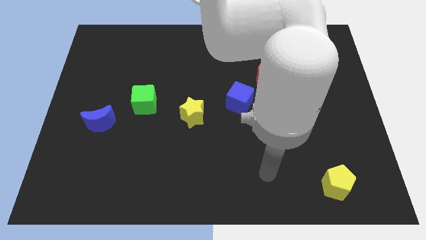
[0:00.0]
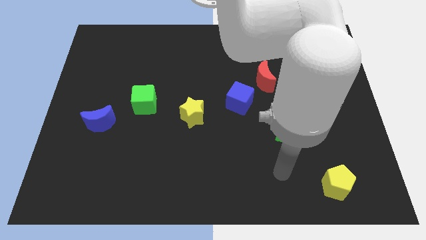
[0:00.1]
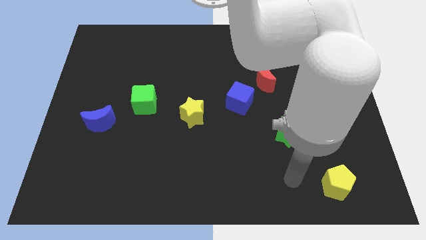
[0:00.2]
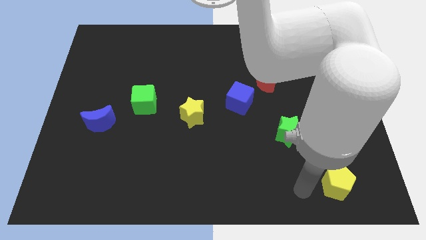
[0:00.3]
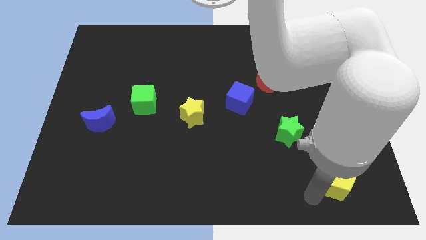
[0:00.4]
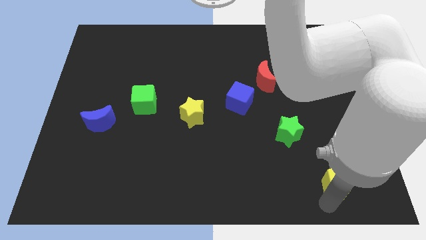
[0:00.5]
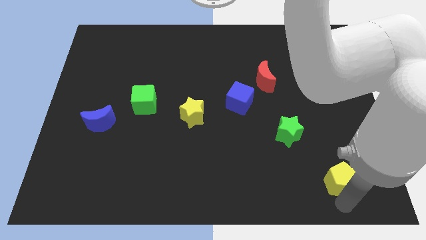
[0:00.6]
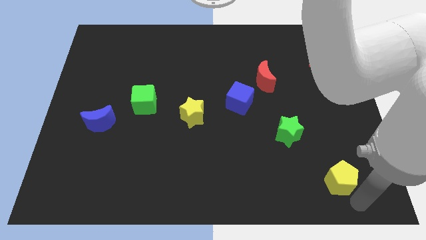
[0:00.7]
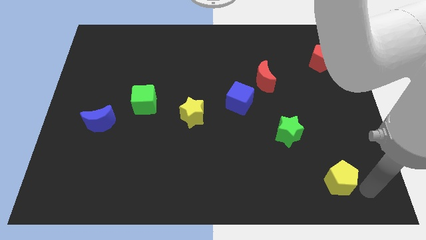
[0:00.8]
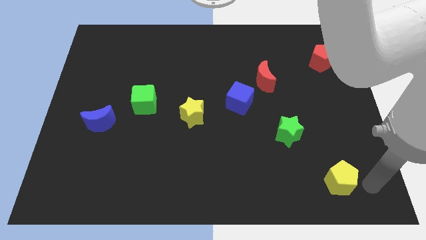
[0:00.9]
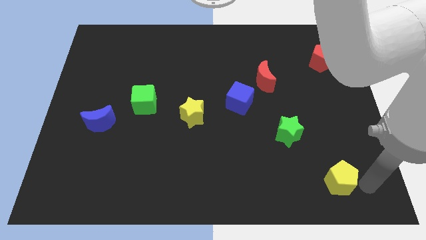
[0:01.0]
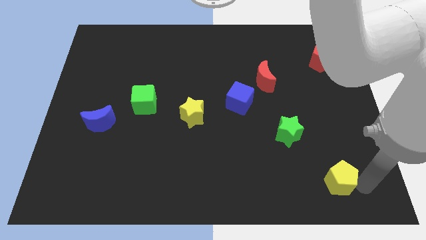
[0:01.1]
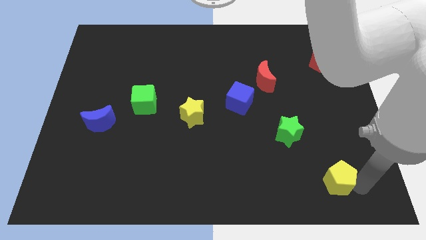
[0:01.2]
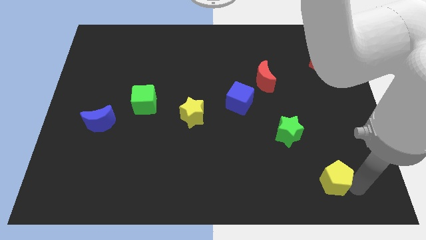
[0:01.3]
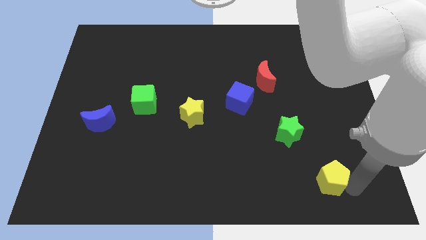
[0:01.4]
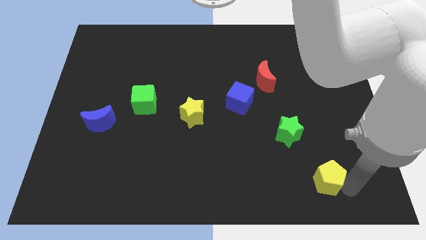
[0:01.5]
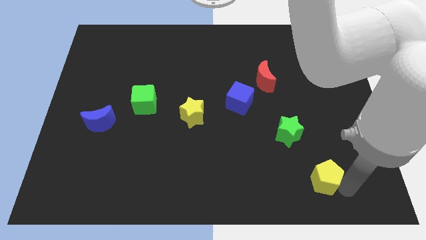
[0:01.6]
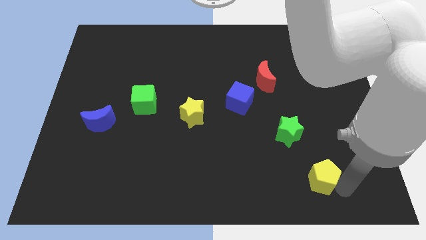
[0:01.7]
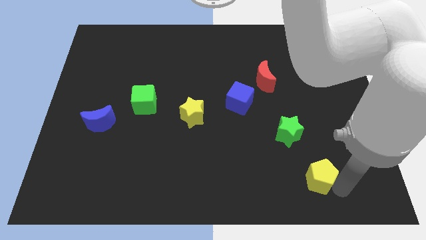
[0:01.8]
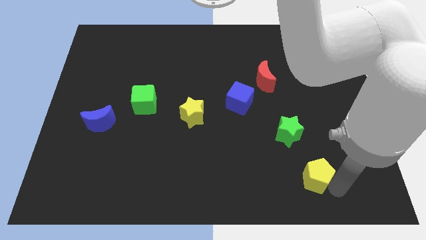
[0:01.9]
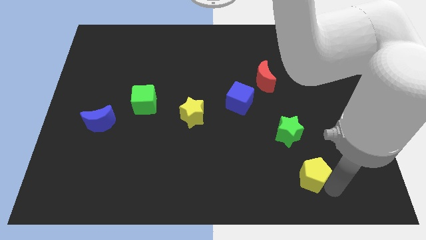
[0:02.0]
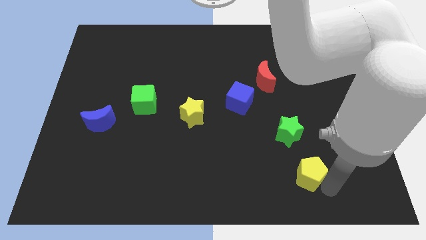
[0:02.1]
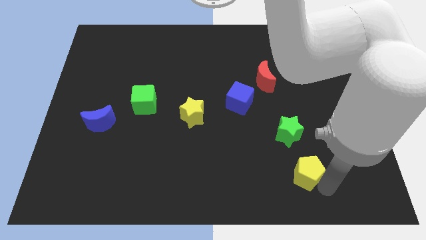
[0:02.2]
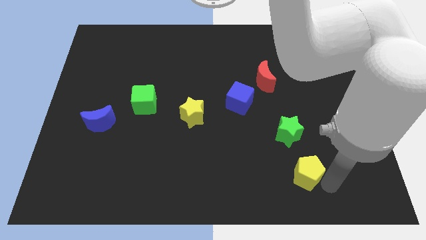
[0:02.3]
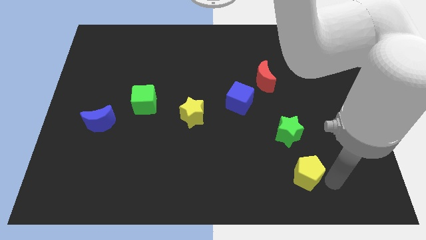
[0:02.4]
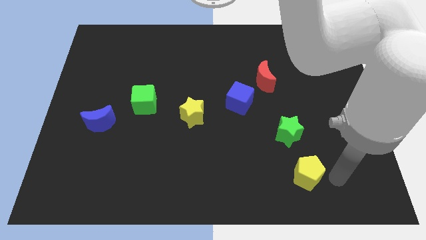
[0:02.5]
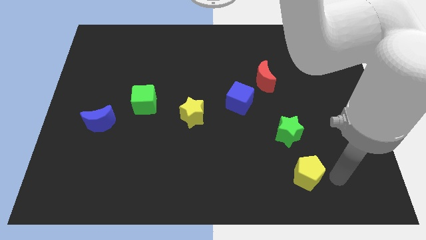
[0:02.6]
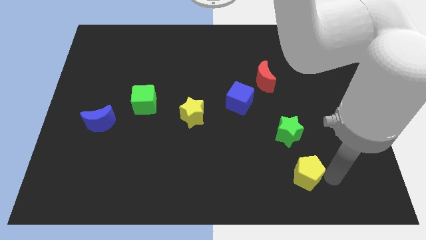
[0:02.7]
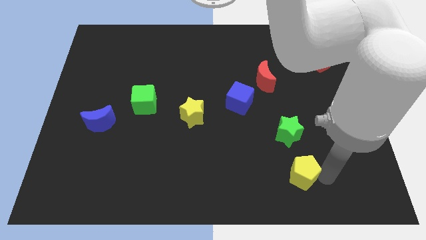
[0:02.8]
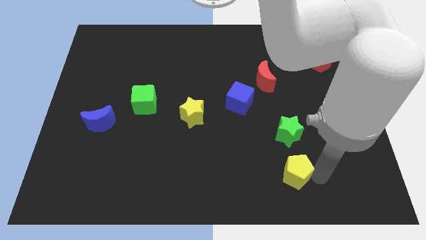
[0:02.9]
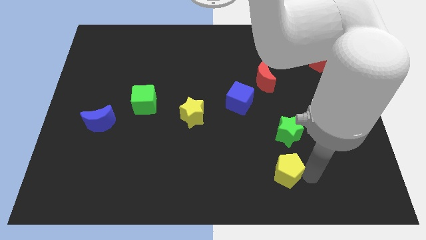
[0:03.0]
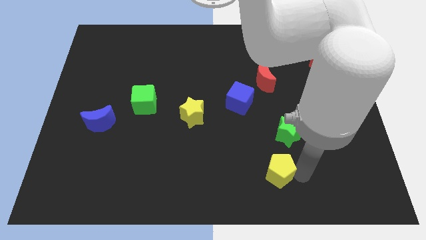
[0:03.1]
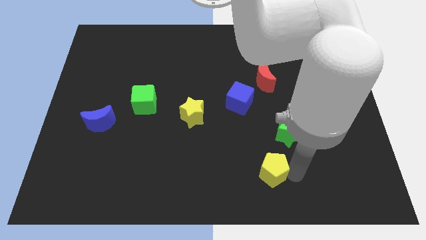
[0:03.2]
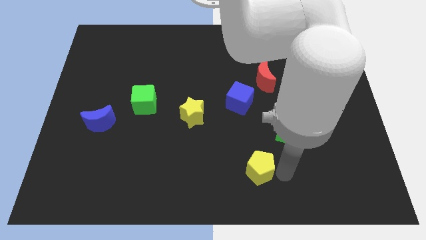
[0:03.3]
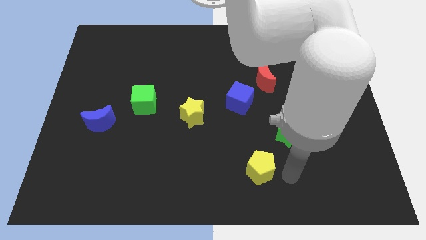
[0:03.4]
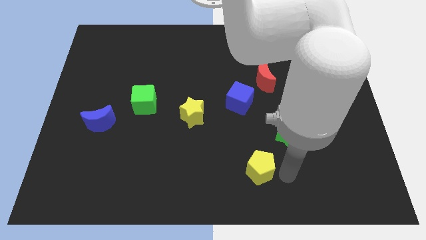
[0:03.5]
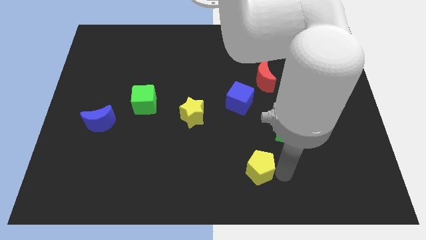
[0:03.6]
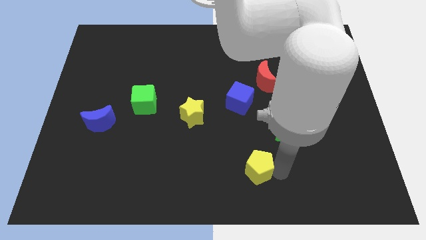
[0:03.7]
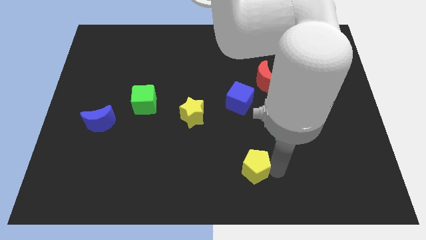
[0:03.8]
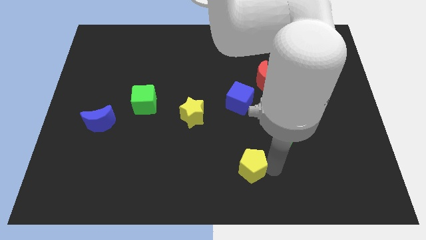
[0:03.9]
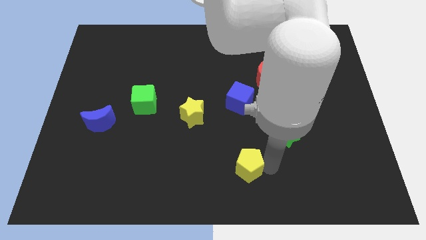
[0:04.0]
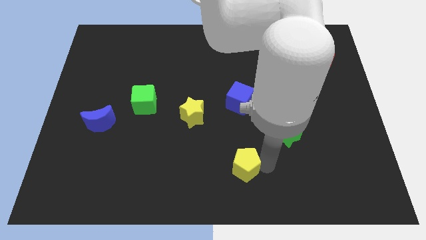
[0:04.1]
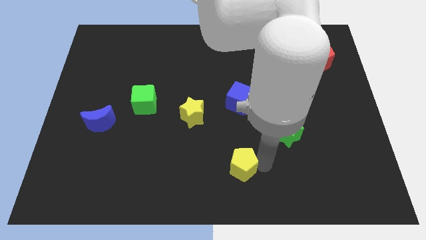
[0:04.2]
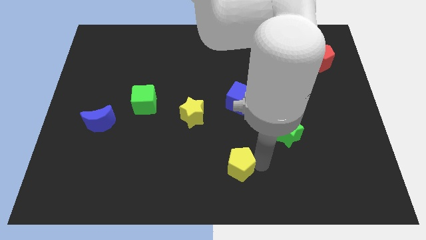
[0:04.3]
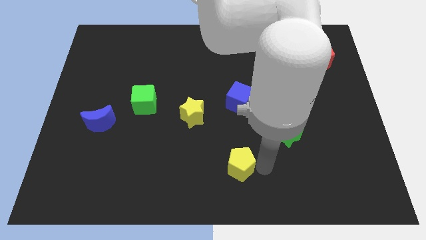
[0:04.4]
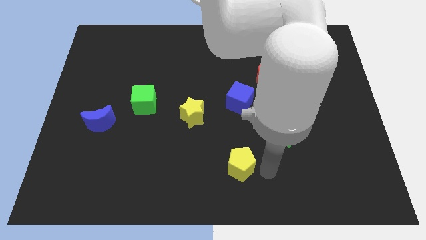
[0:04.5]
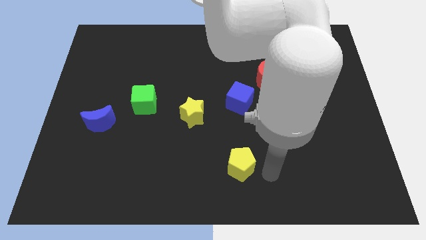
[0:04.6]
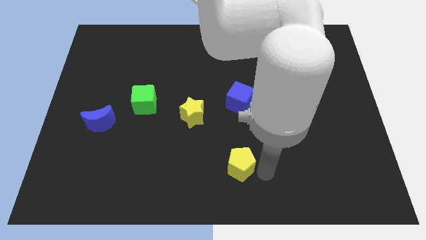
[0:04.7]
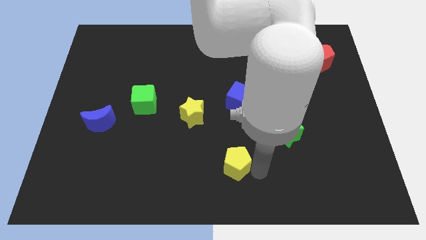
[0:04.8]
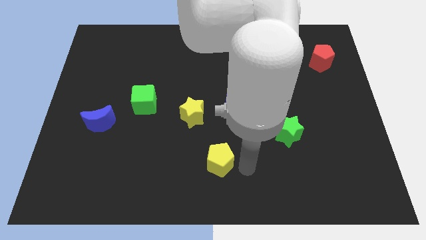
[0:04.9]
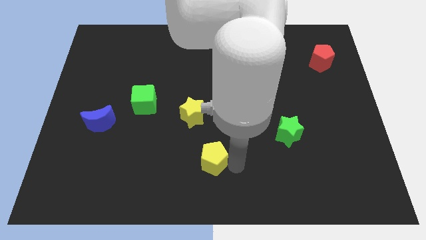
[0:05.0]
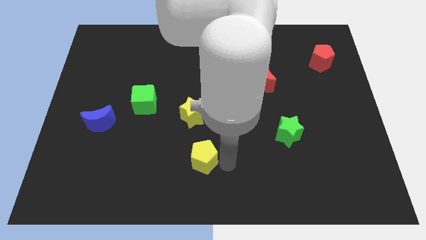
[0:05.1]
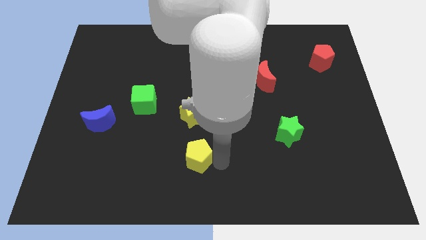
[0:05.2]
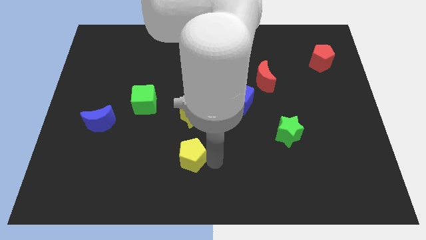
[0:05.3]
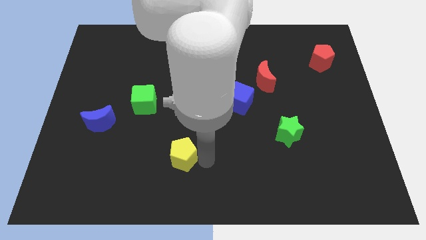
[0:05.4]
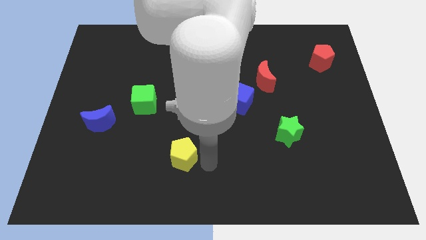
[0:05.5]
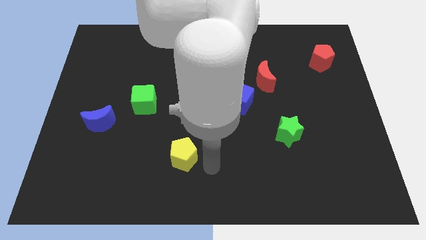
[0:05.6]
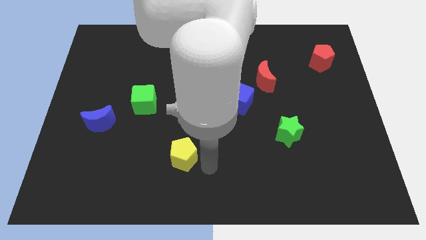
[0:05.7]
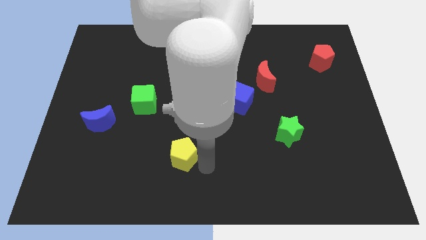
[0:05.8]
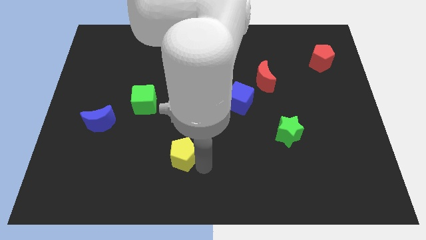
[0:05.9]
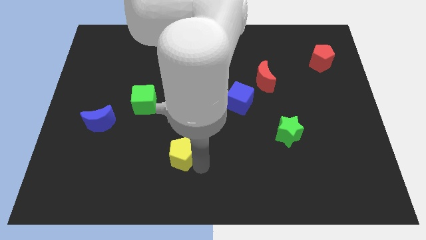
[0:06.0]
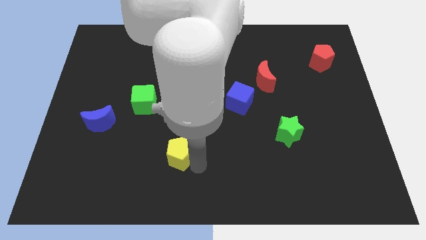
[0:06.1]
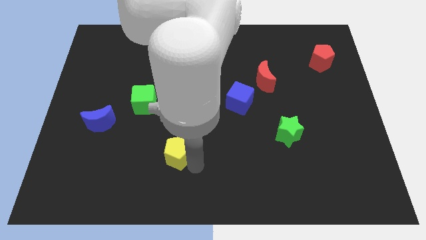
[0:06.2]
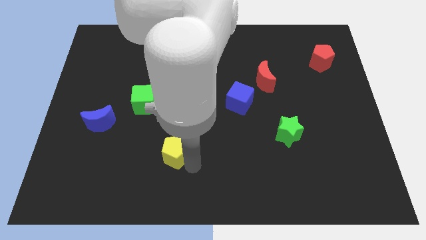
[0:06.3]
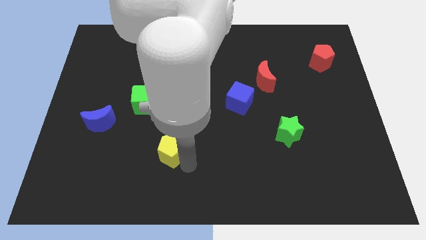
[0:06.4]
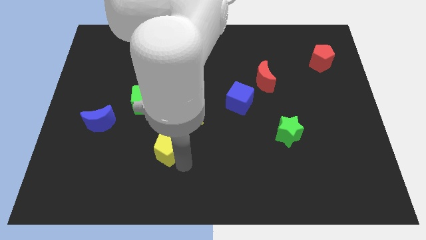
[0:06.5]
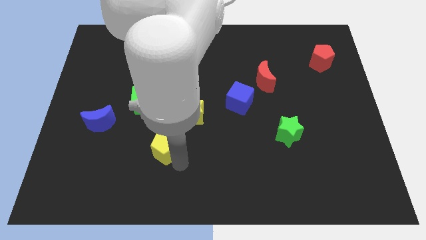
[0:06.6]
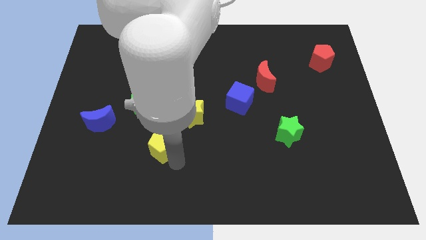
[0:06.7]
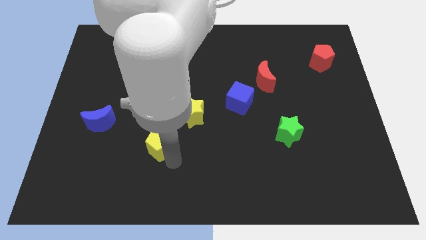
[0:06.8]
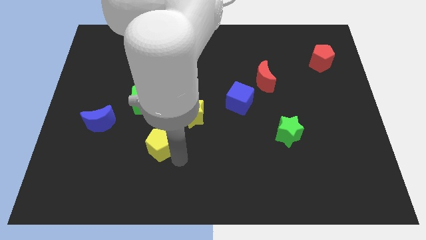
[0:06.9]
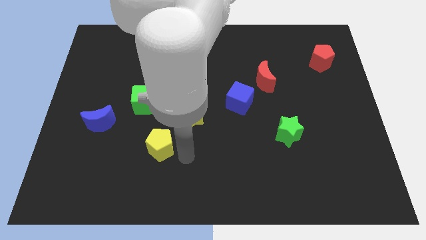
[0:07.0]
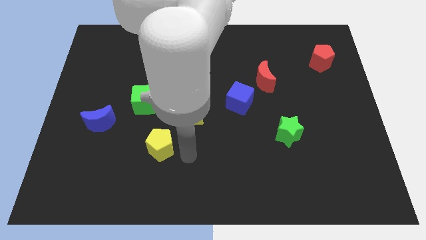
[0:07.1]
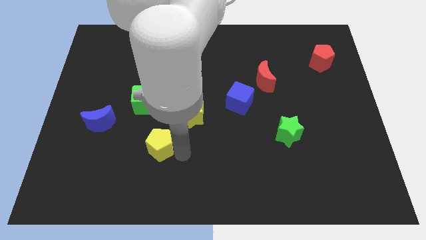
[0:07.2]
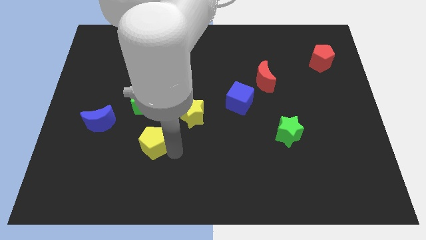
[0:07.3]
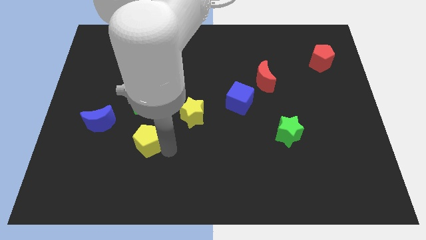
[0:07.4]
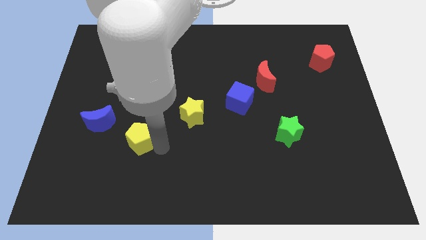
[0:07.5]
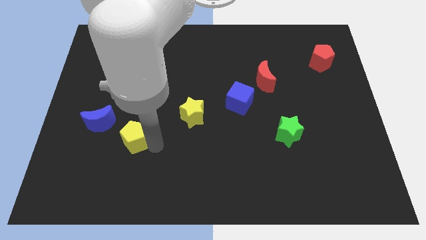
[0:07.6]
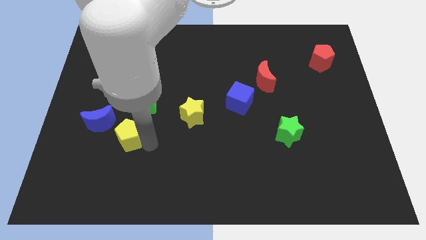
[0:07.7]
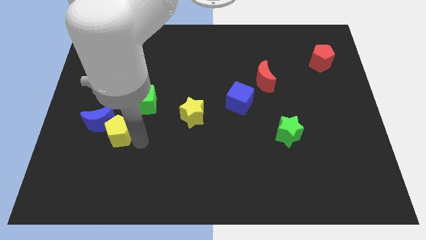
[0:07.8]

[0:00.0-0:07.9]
push the yellow pentagon close to the blue moon
